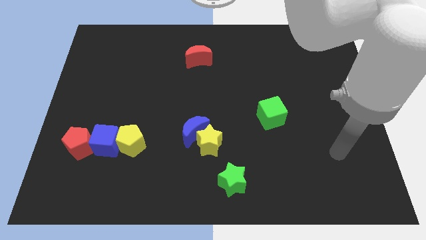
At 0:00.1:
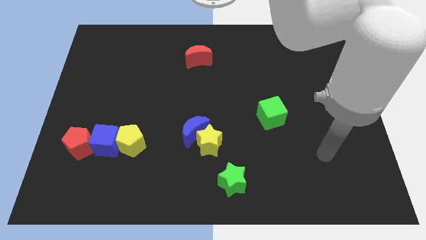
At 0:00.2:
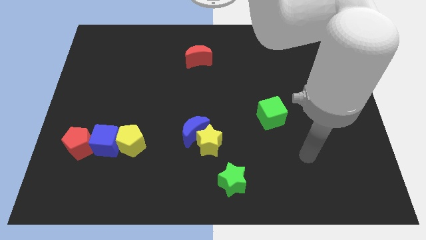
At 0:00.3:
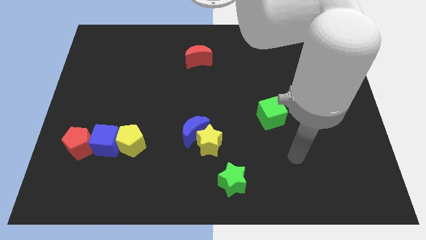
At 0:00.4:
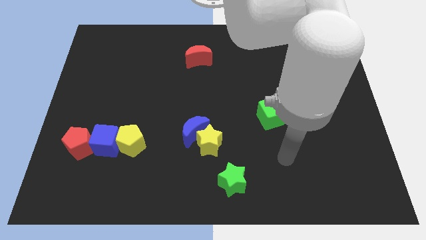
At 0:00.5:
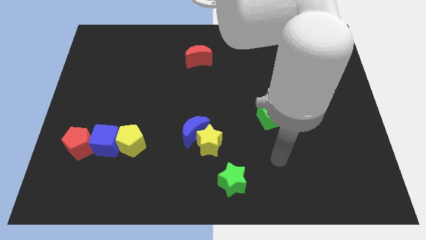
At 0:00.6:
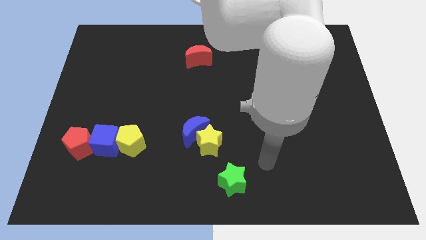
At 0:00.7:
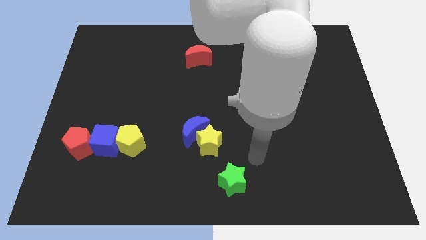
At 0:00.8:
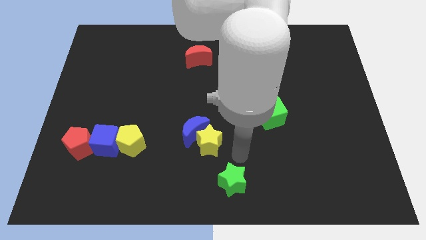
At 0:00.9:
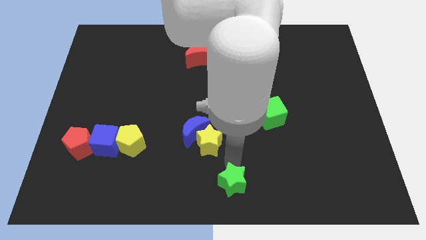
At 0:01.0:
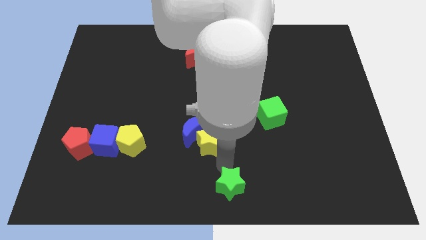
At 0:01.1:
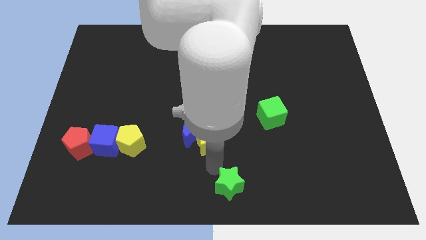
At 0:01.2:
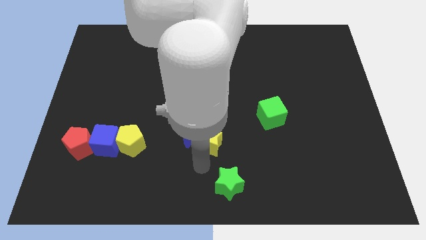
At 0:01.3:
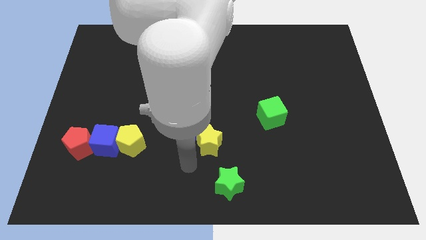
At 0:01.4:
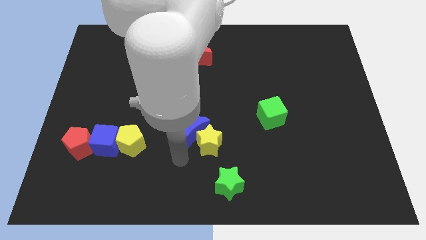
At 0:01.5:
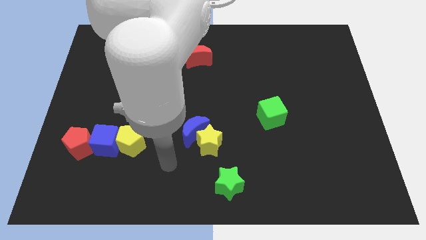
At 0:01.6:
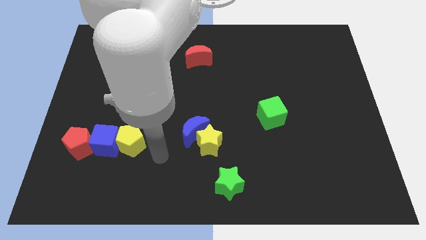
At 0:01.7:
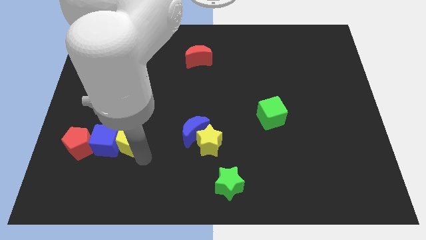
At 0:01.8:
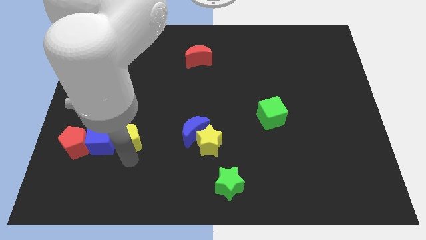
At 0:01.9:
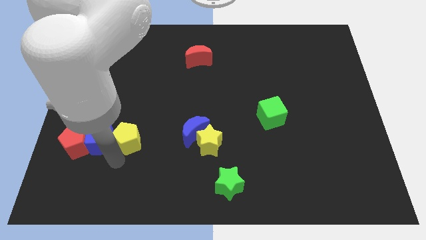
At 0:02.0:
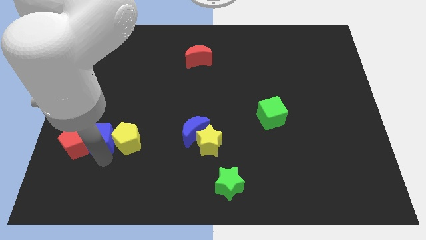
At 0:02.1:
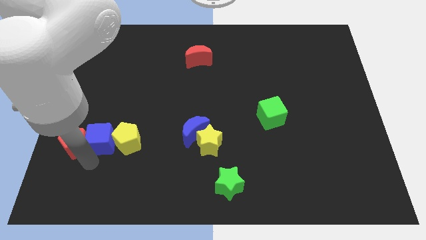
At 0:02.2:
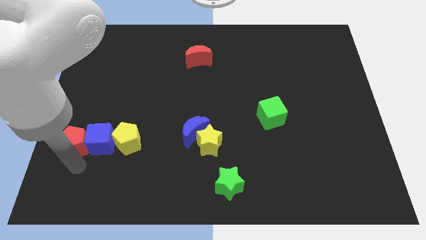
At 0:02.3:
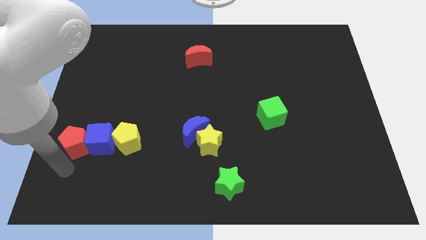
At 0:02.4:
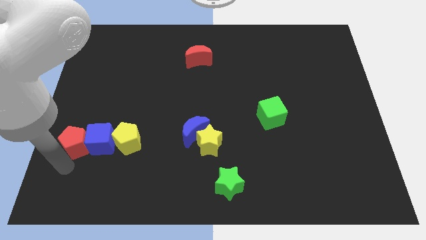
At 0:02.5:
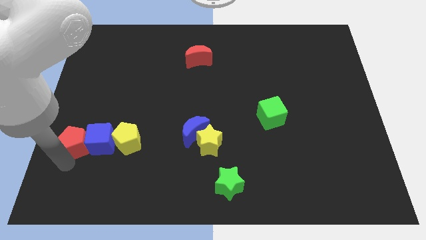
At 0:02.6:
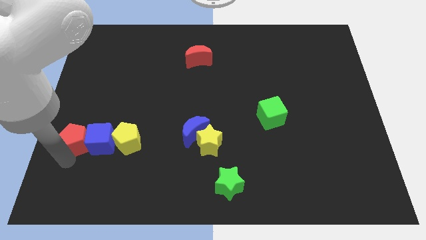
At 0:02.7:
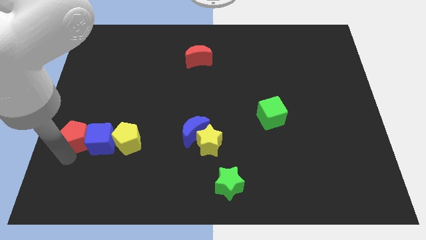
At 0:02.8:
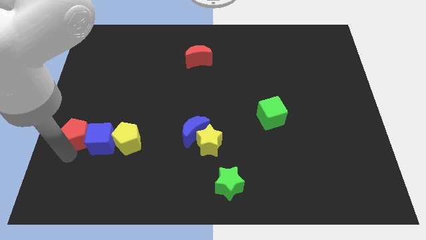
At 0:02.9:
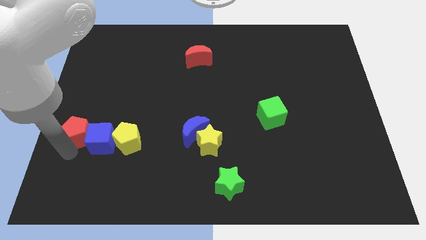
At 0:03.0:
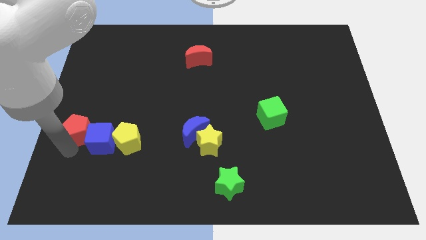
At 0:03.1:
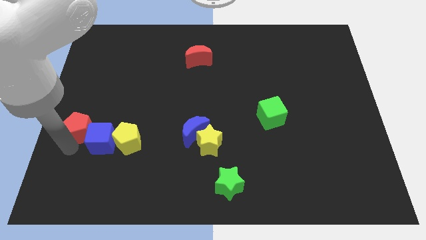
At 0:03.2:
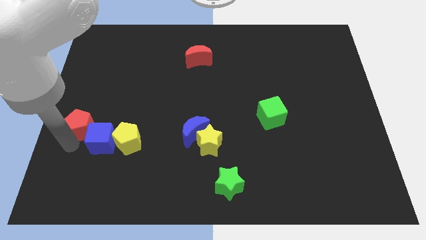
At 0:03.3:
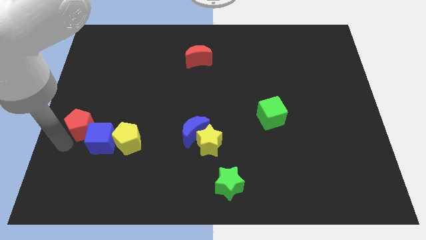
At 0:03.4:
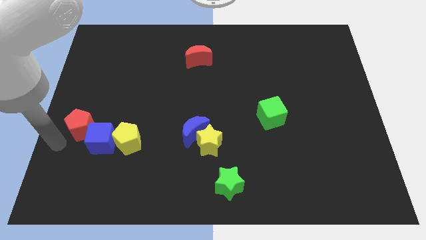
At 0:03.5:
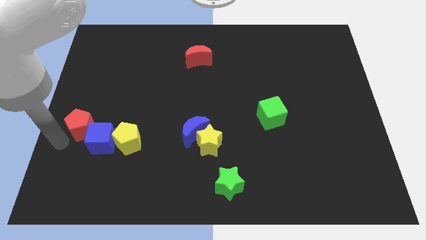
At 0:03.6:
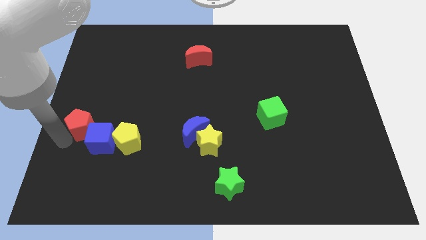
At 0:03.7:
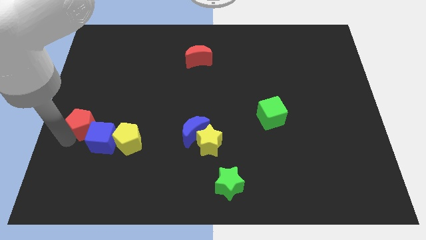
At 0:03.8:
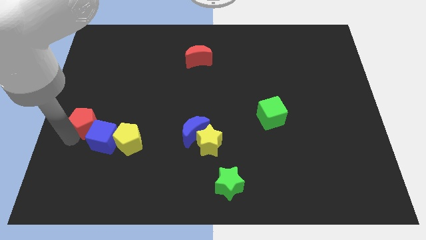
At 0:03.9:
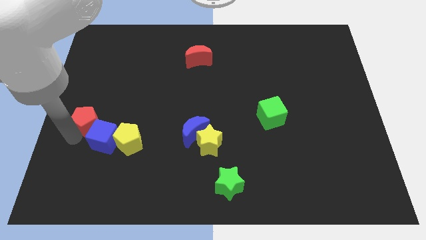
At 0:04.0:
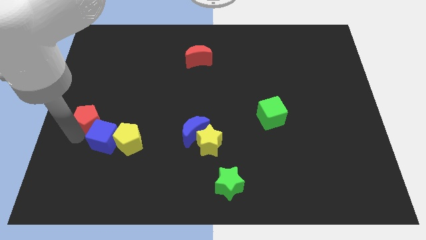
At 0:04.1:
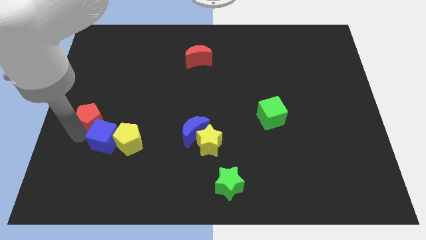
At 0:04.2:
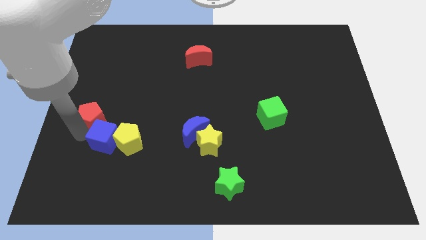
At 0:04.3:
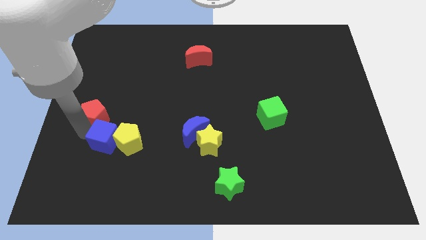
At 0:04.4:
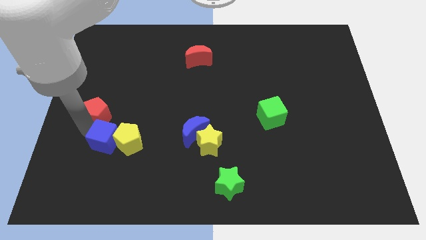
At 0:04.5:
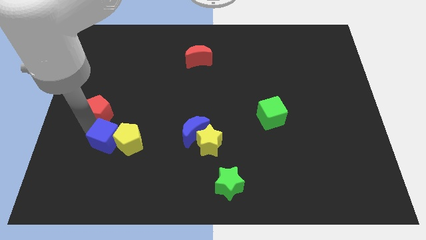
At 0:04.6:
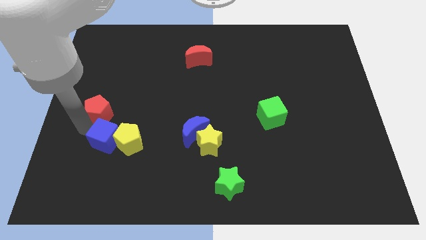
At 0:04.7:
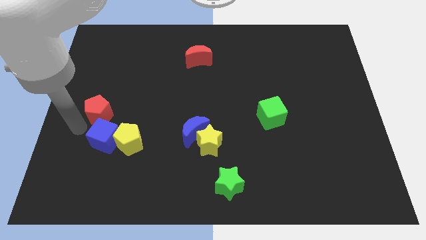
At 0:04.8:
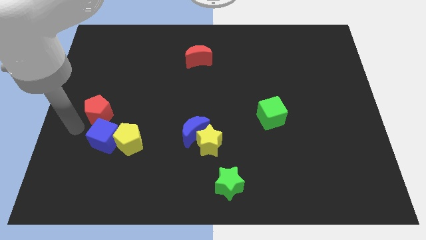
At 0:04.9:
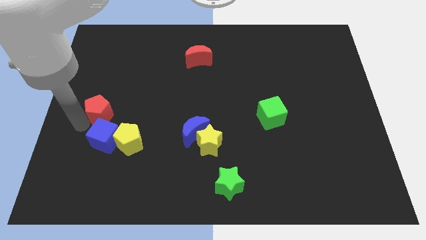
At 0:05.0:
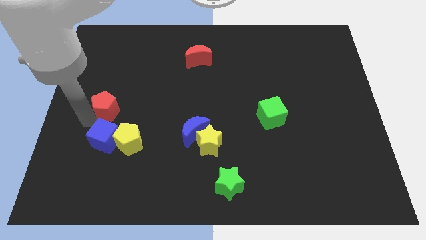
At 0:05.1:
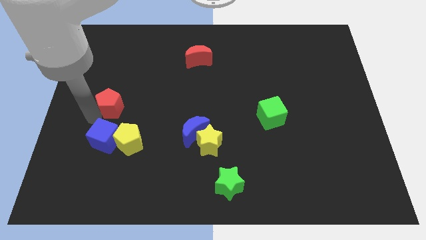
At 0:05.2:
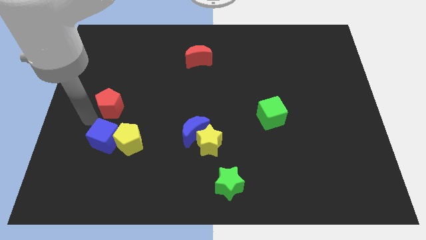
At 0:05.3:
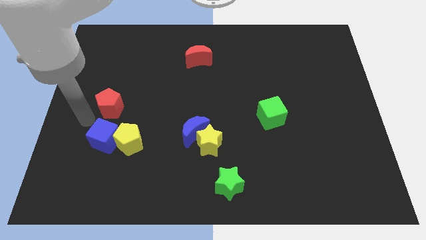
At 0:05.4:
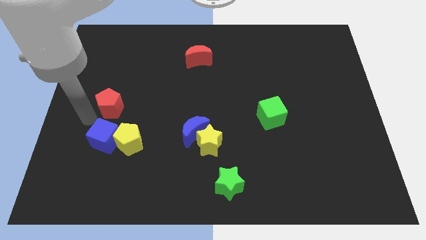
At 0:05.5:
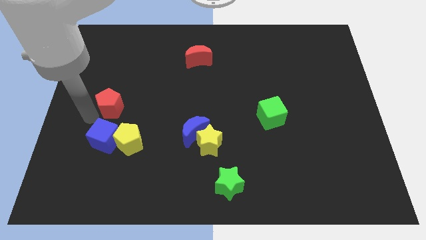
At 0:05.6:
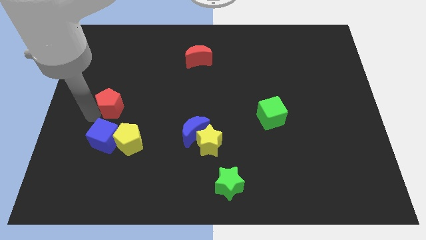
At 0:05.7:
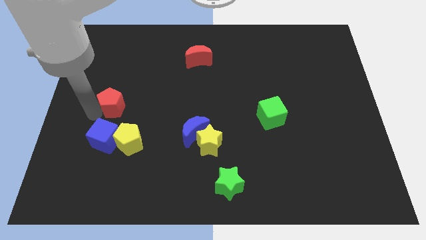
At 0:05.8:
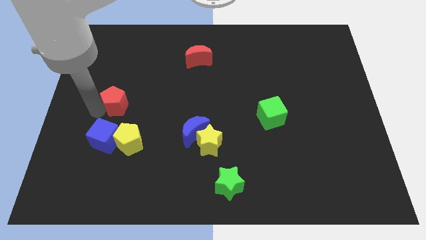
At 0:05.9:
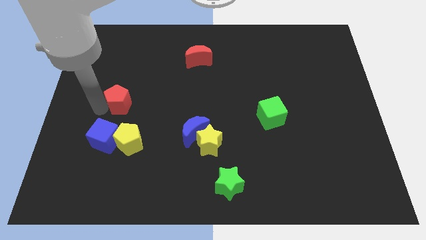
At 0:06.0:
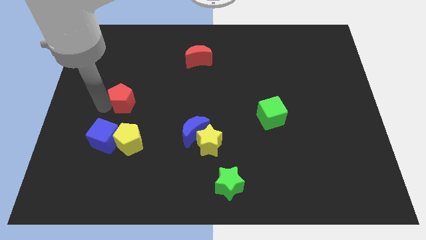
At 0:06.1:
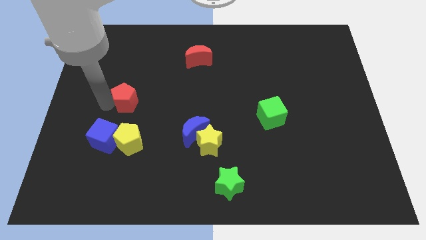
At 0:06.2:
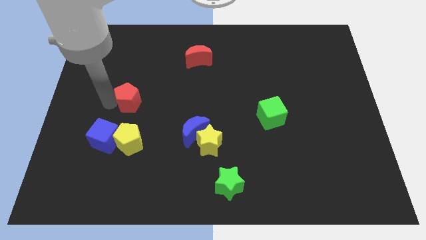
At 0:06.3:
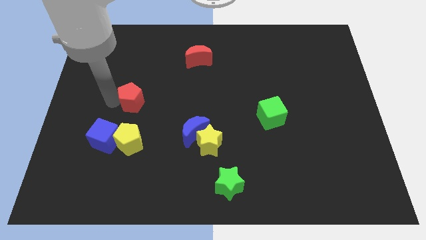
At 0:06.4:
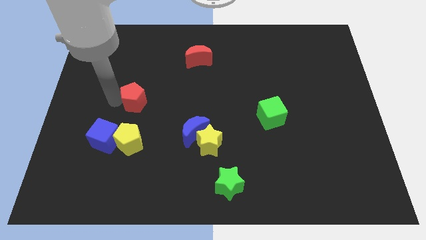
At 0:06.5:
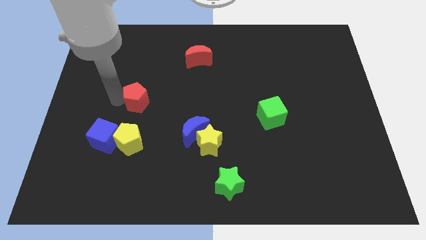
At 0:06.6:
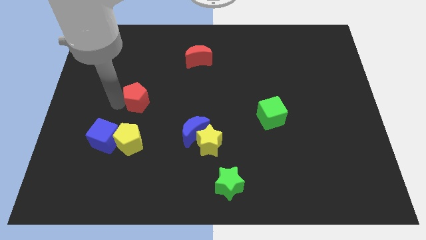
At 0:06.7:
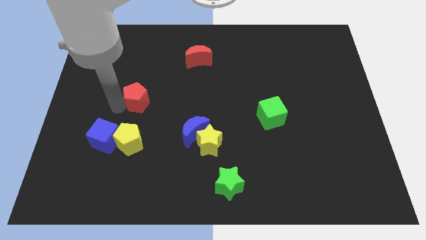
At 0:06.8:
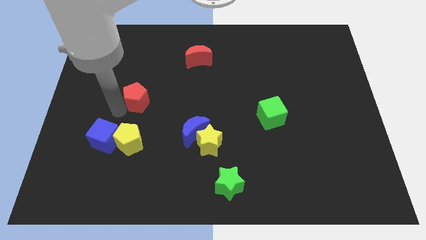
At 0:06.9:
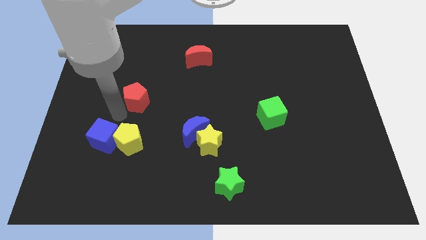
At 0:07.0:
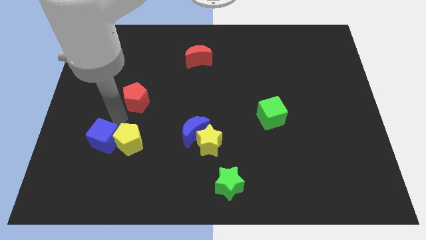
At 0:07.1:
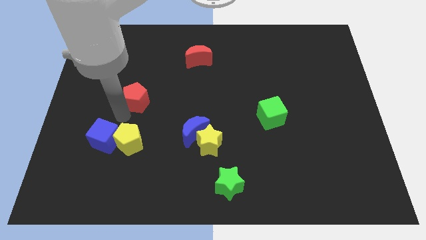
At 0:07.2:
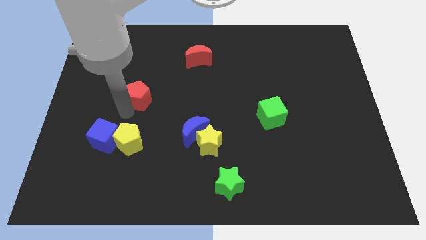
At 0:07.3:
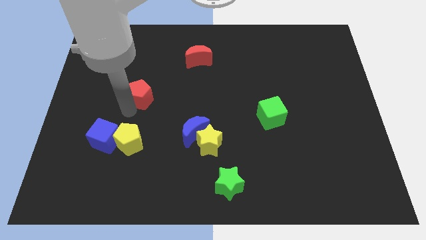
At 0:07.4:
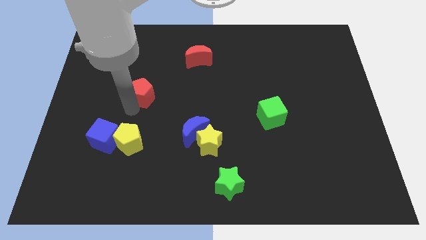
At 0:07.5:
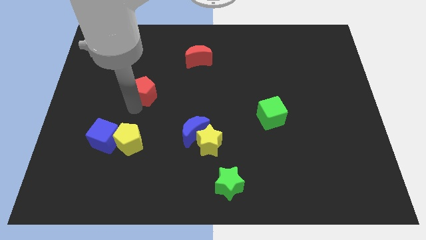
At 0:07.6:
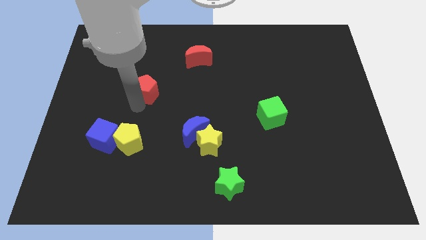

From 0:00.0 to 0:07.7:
slide the red pentagon upwards and right

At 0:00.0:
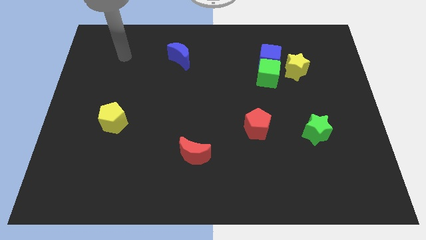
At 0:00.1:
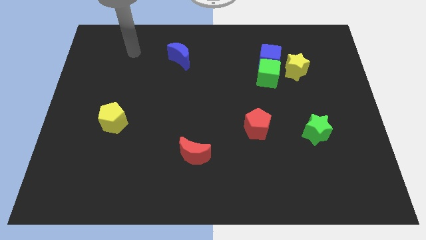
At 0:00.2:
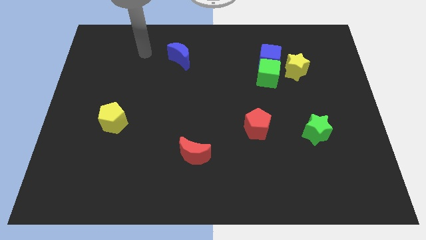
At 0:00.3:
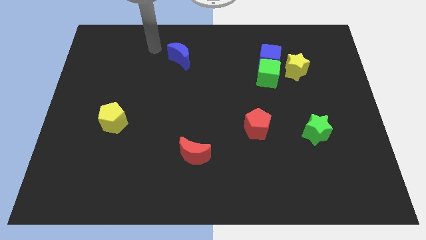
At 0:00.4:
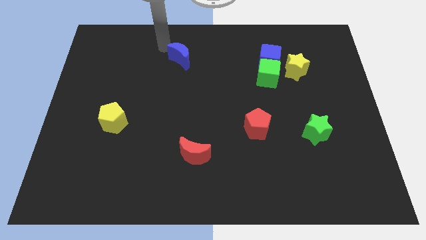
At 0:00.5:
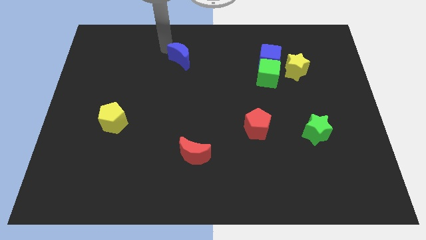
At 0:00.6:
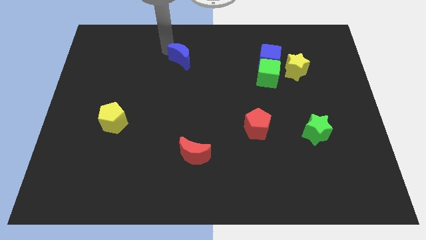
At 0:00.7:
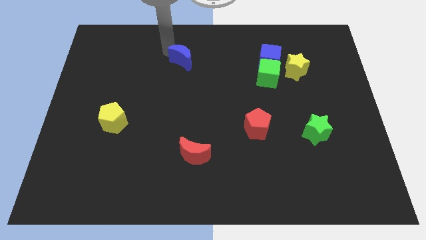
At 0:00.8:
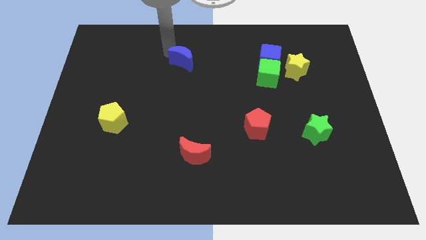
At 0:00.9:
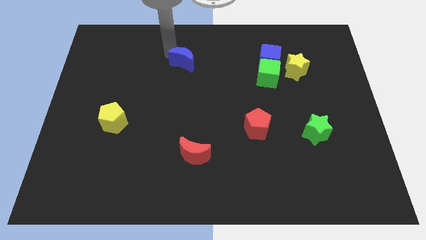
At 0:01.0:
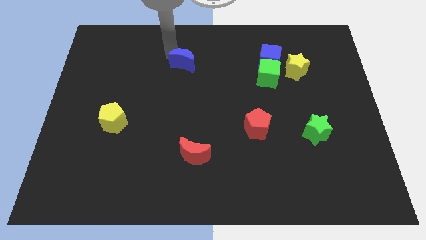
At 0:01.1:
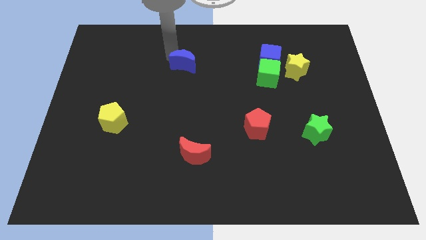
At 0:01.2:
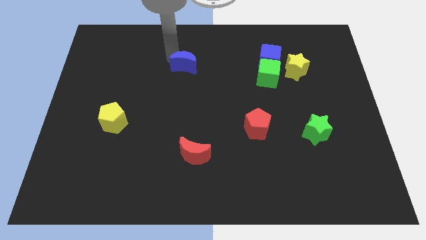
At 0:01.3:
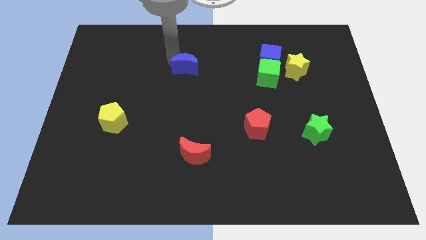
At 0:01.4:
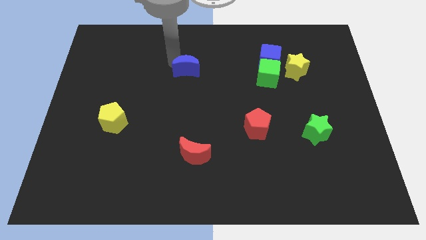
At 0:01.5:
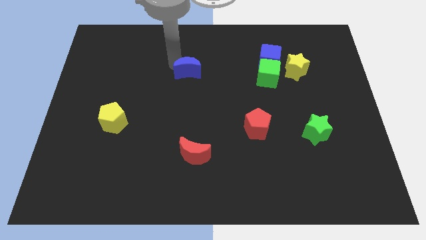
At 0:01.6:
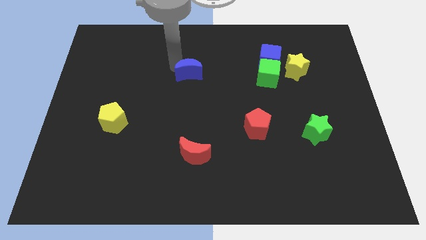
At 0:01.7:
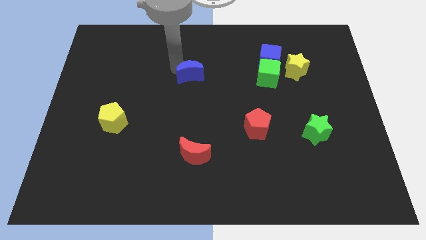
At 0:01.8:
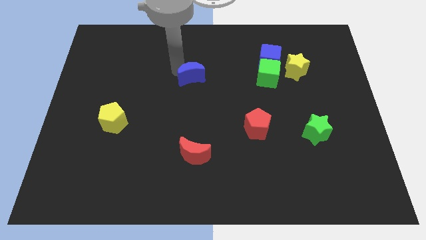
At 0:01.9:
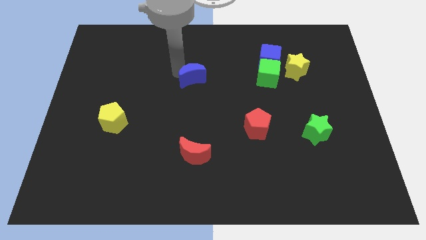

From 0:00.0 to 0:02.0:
move the blue moon slightly down and to the right diagonally
